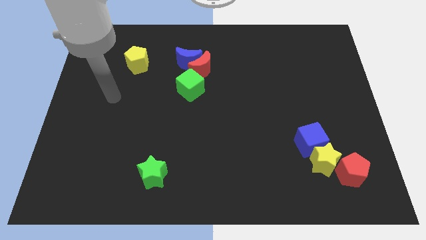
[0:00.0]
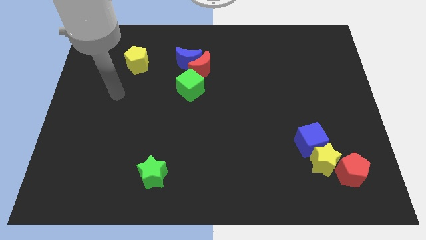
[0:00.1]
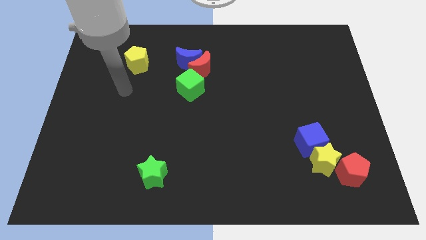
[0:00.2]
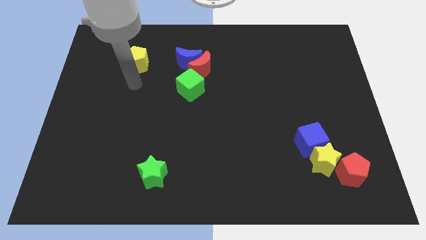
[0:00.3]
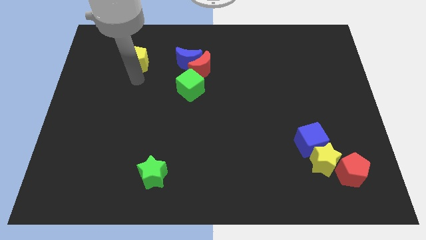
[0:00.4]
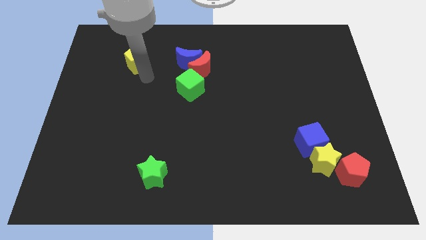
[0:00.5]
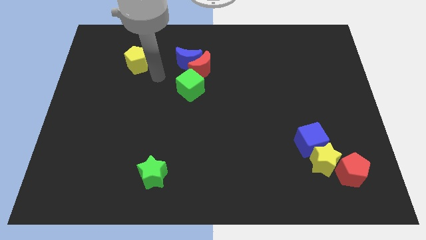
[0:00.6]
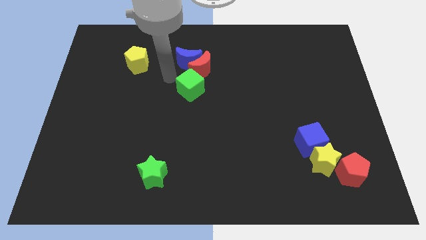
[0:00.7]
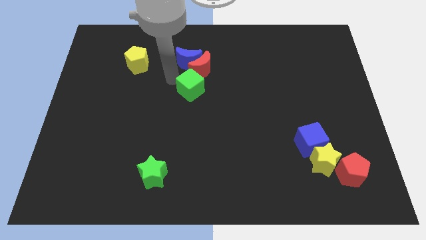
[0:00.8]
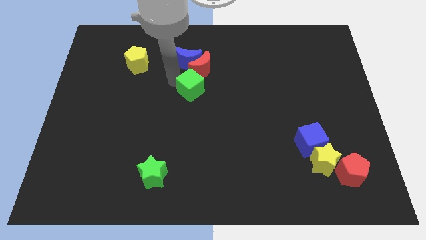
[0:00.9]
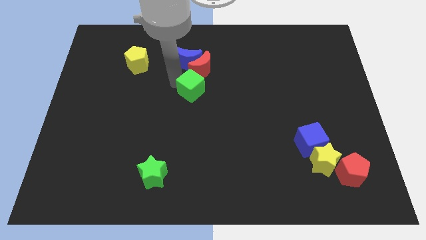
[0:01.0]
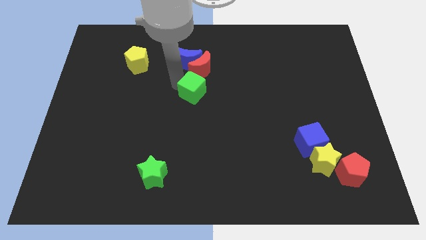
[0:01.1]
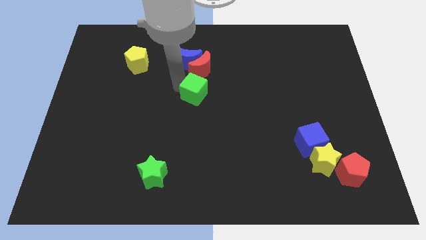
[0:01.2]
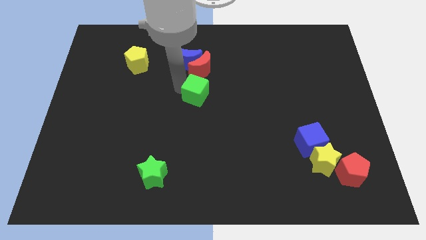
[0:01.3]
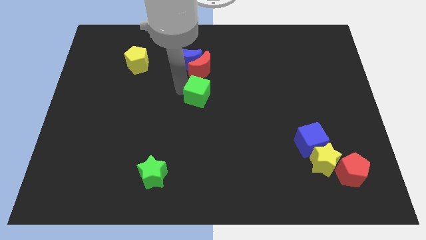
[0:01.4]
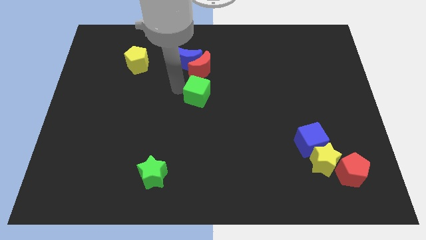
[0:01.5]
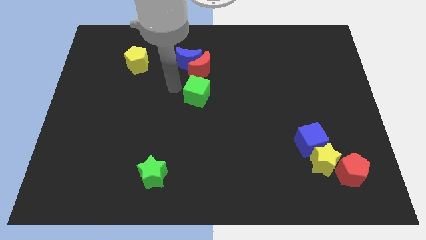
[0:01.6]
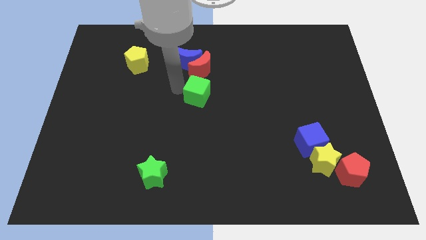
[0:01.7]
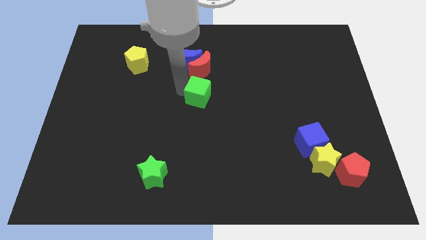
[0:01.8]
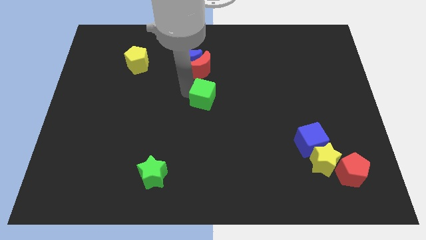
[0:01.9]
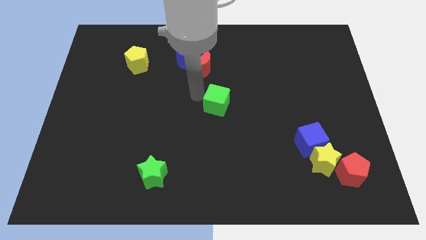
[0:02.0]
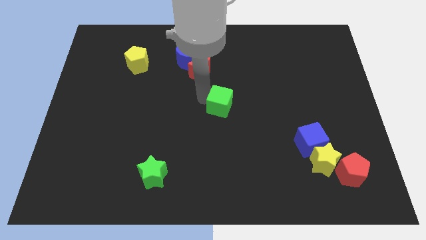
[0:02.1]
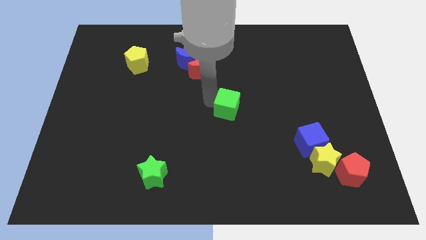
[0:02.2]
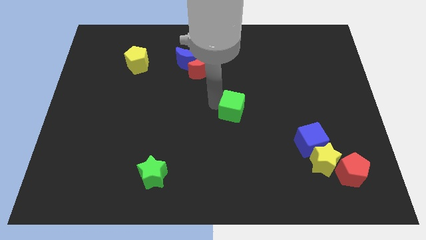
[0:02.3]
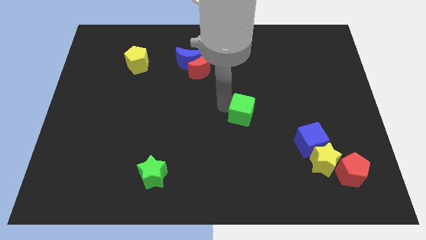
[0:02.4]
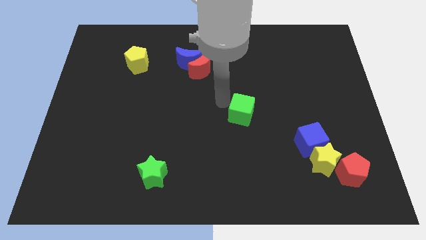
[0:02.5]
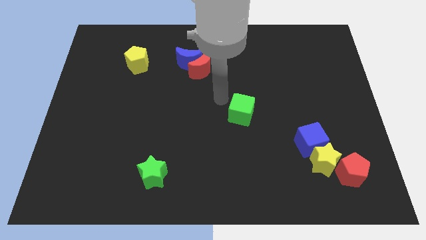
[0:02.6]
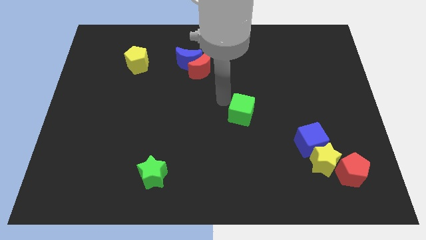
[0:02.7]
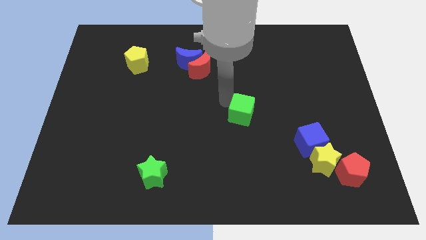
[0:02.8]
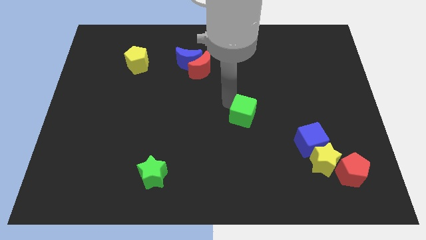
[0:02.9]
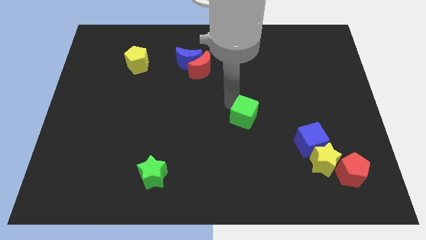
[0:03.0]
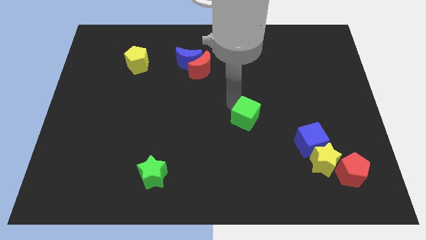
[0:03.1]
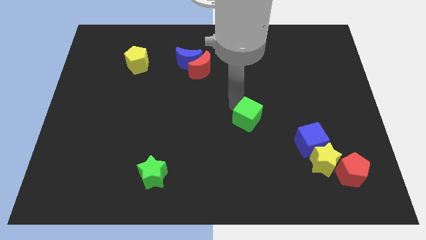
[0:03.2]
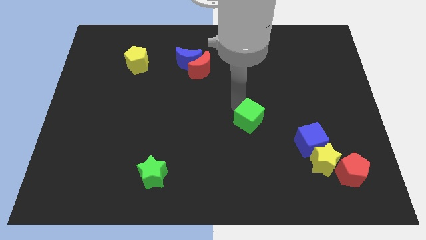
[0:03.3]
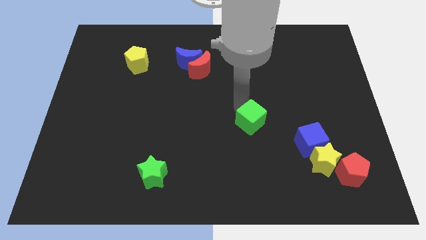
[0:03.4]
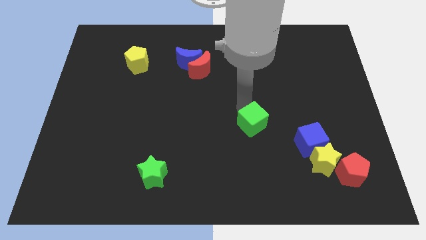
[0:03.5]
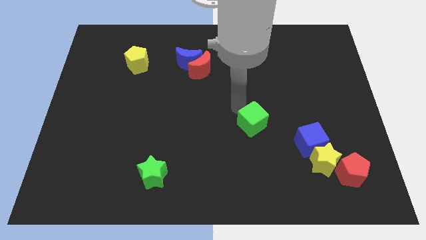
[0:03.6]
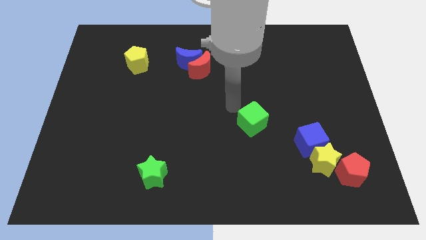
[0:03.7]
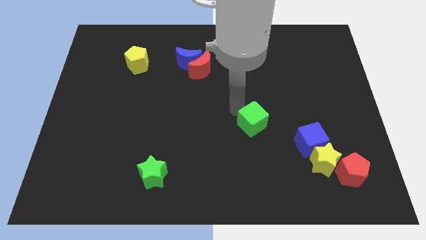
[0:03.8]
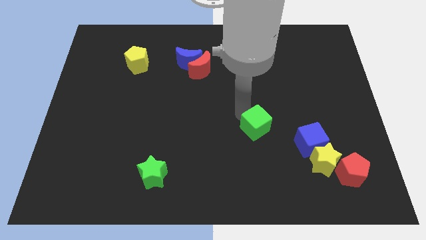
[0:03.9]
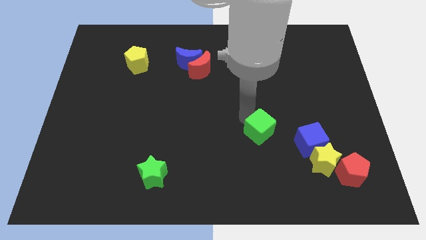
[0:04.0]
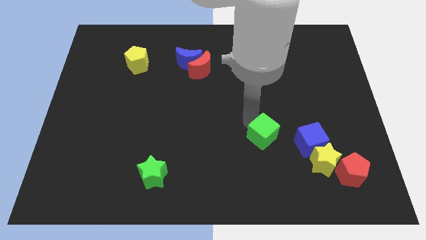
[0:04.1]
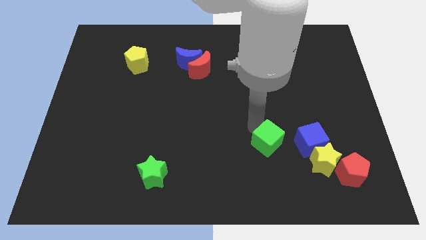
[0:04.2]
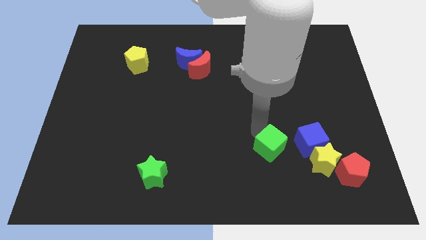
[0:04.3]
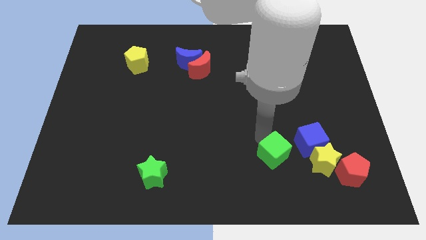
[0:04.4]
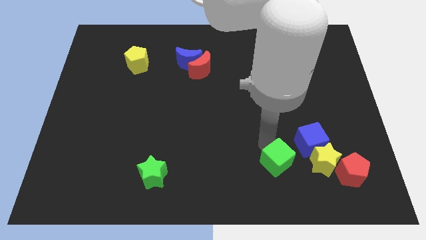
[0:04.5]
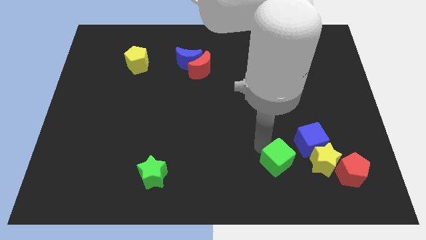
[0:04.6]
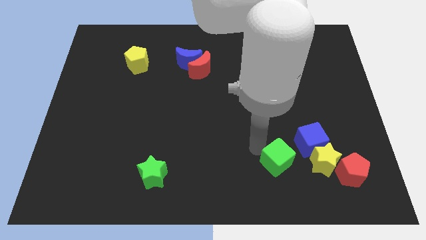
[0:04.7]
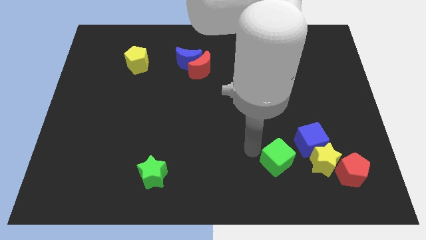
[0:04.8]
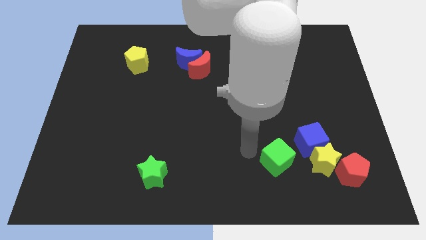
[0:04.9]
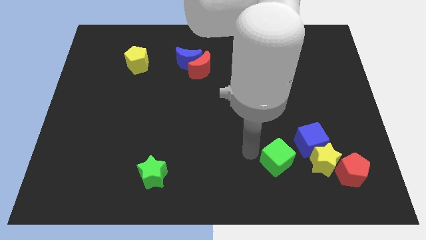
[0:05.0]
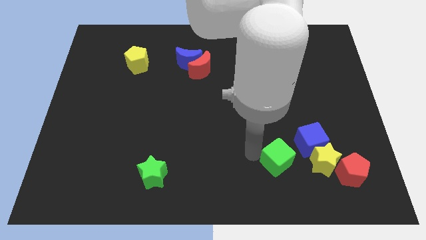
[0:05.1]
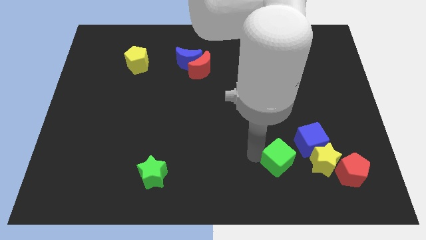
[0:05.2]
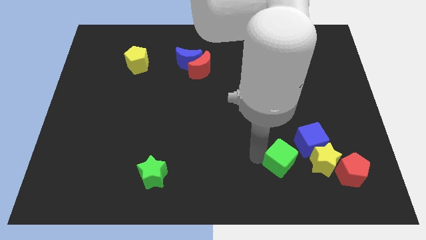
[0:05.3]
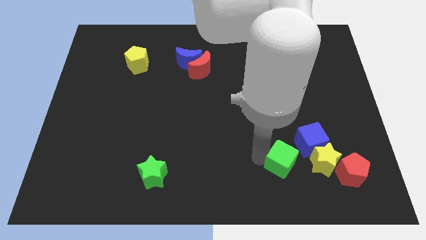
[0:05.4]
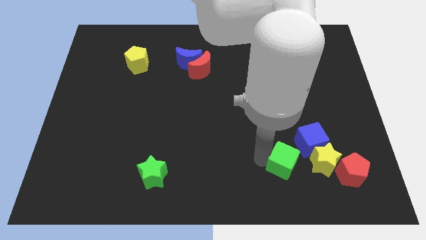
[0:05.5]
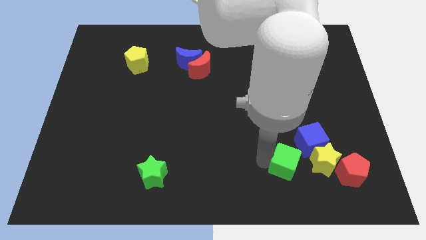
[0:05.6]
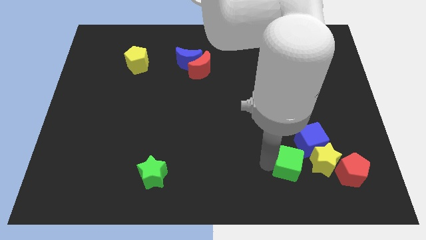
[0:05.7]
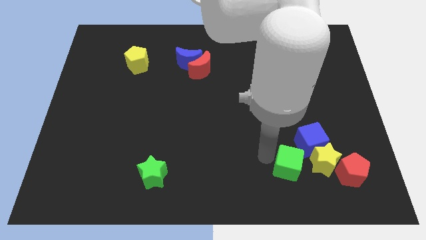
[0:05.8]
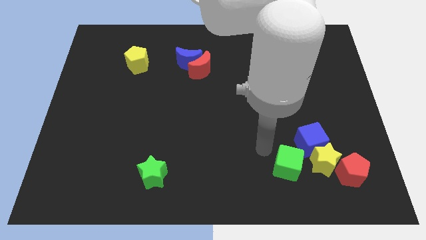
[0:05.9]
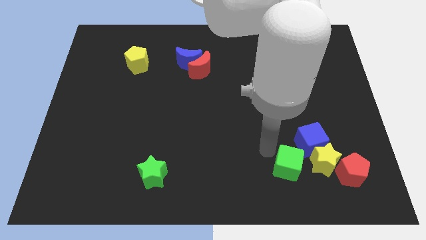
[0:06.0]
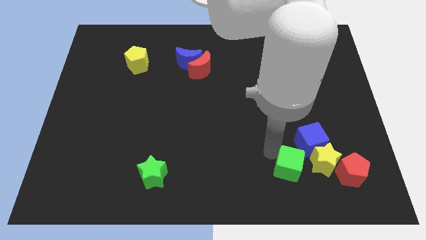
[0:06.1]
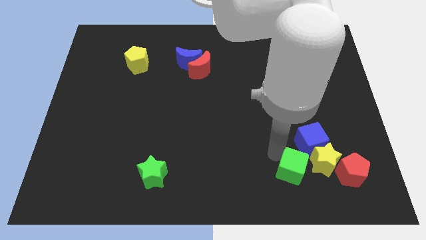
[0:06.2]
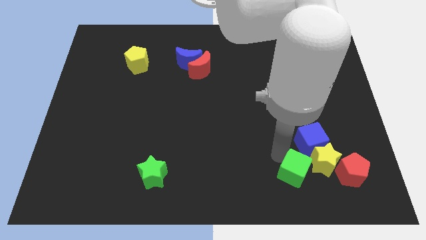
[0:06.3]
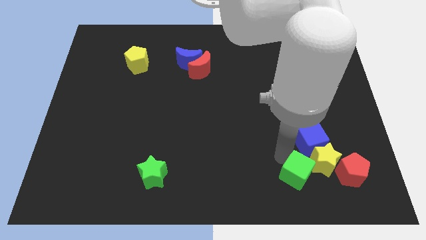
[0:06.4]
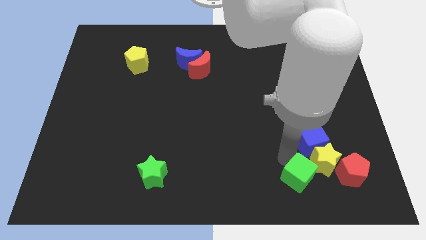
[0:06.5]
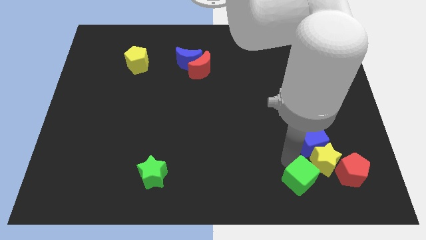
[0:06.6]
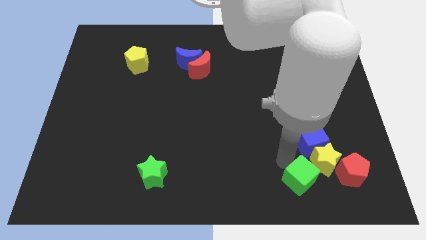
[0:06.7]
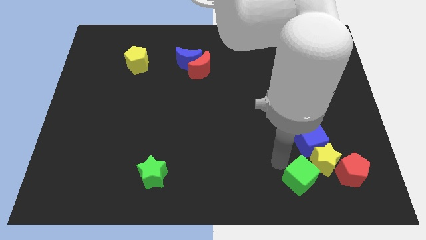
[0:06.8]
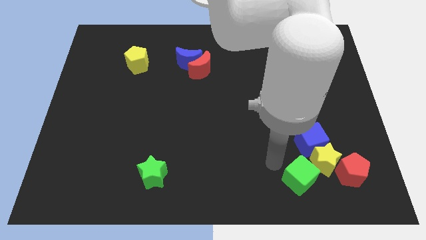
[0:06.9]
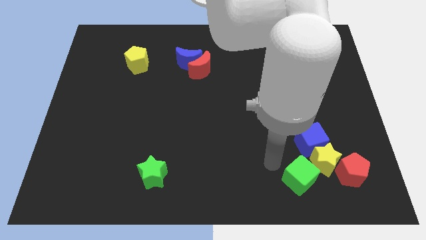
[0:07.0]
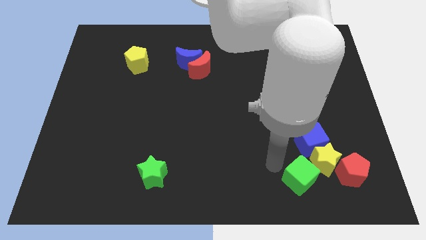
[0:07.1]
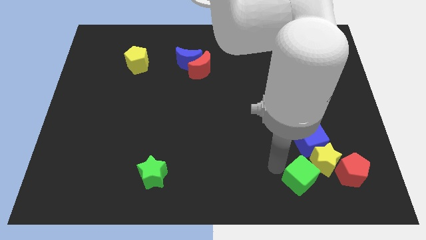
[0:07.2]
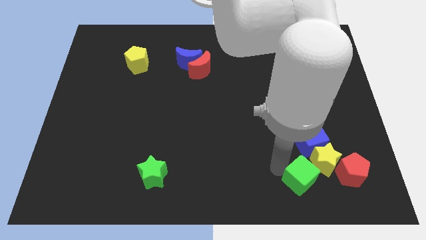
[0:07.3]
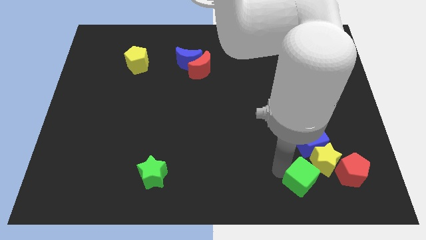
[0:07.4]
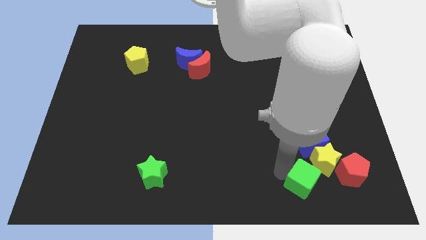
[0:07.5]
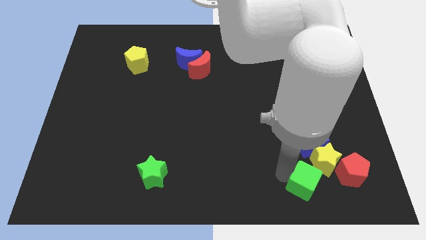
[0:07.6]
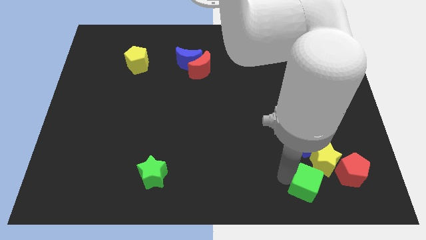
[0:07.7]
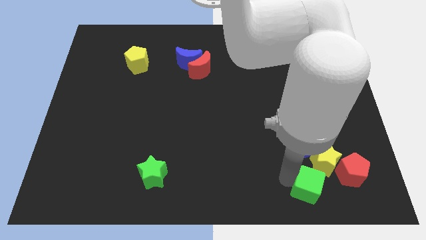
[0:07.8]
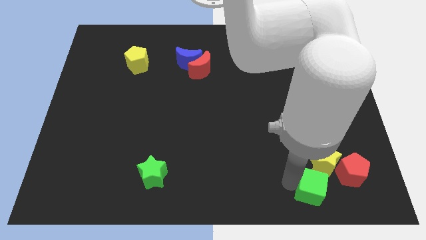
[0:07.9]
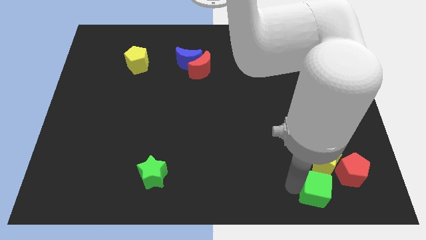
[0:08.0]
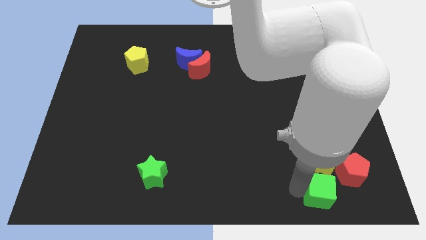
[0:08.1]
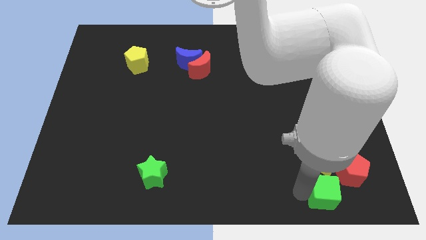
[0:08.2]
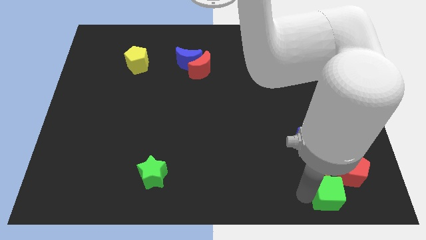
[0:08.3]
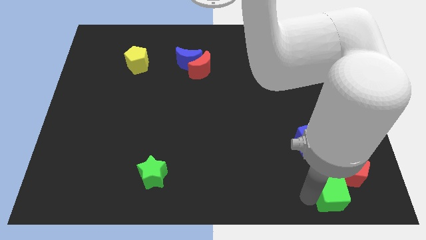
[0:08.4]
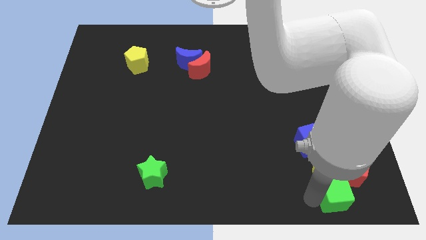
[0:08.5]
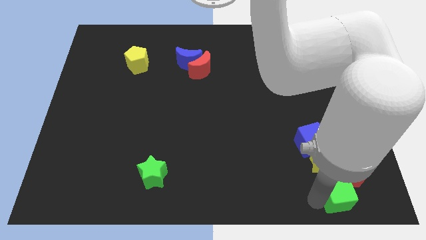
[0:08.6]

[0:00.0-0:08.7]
put the green cube to the bottom right of the yellow star
